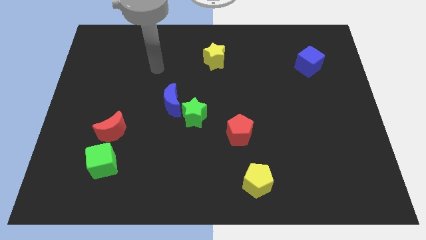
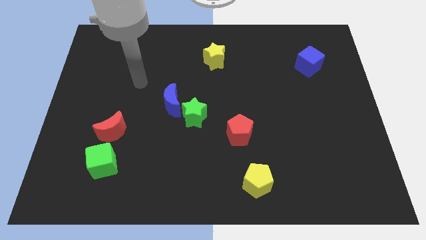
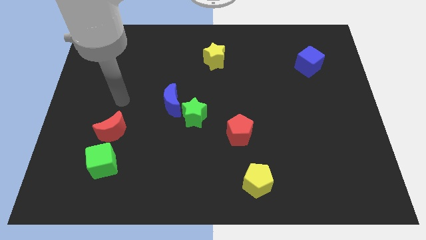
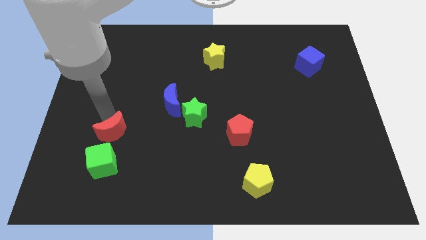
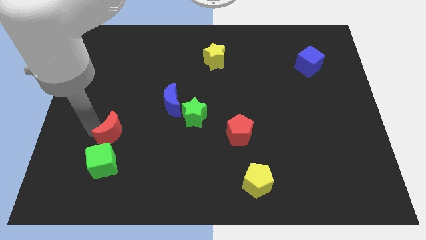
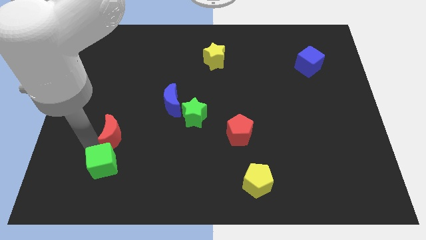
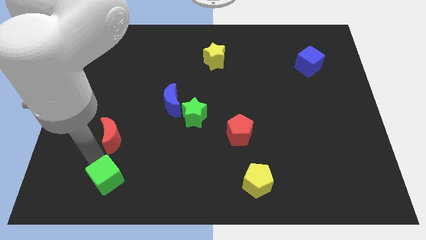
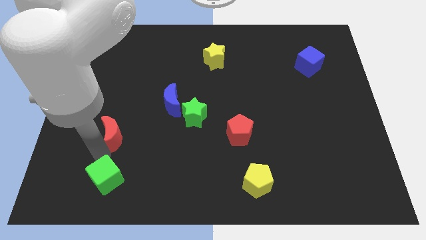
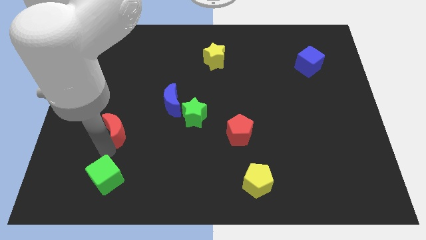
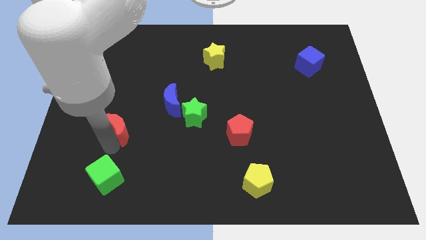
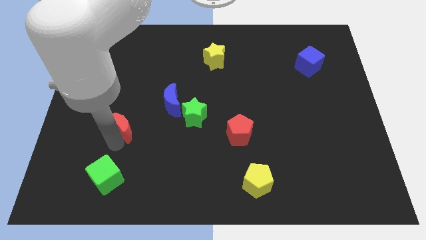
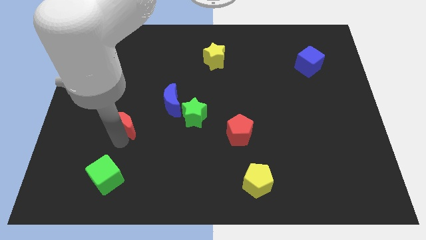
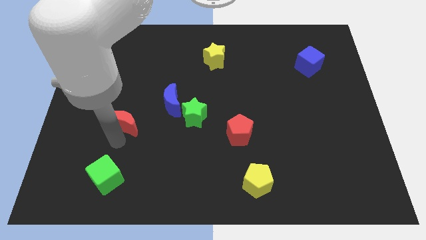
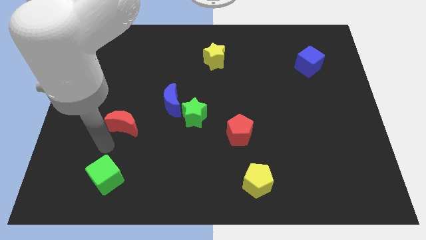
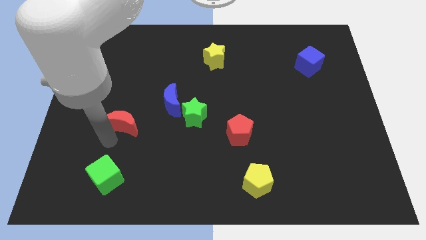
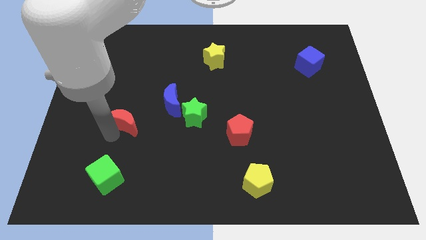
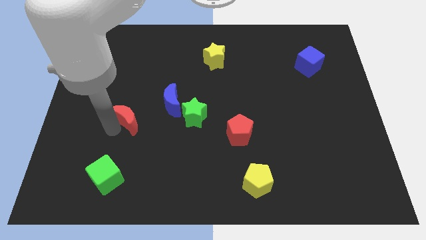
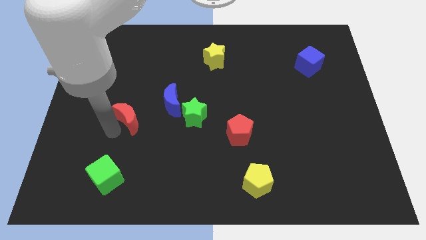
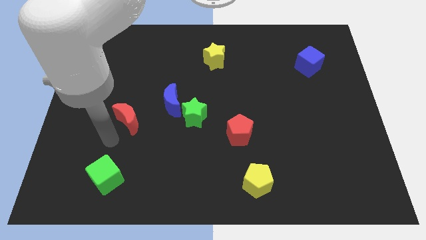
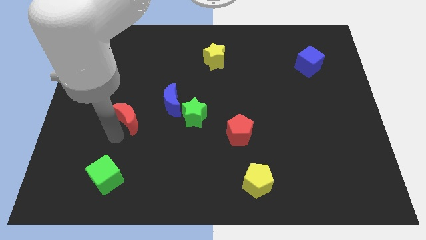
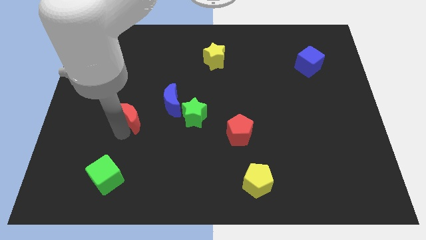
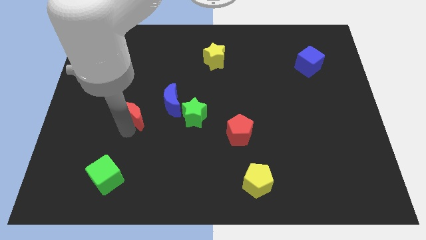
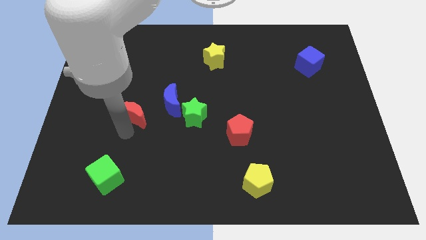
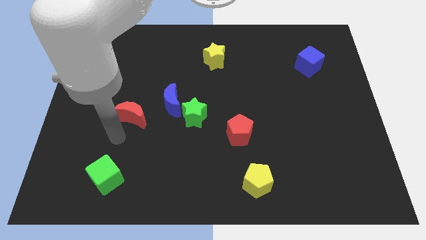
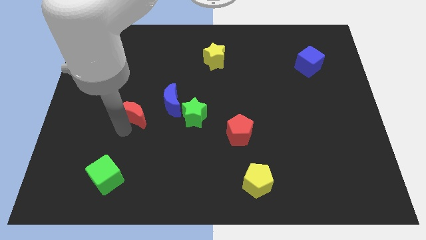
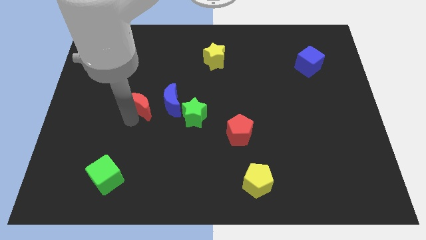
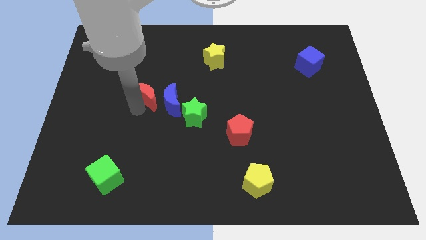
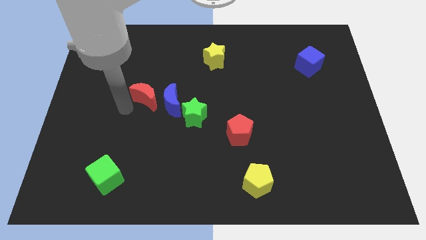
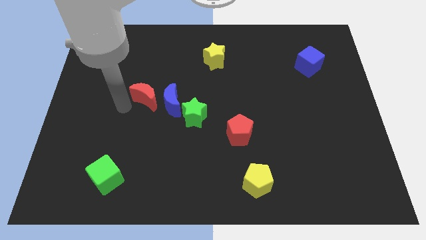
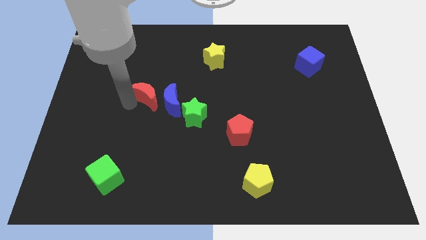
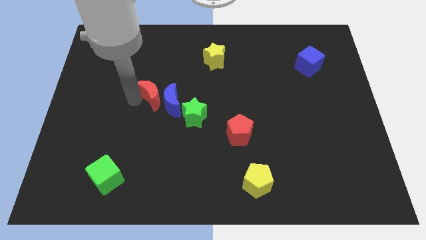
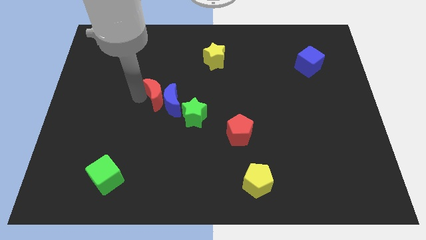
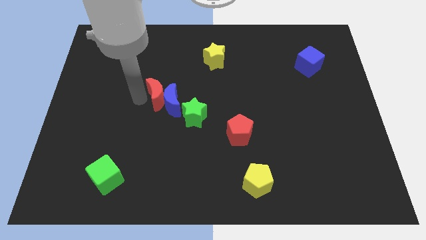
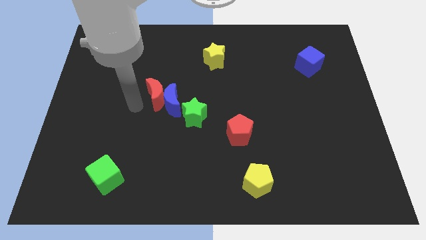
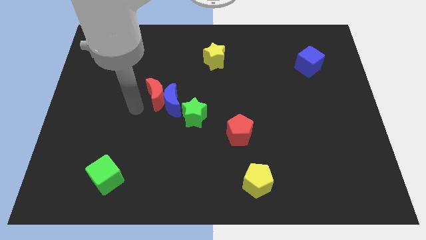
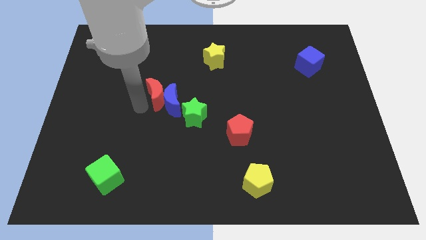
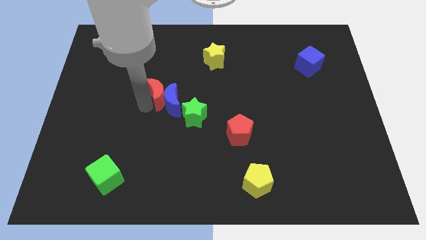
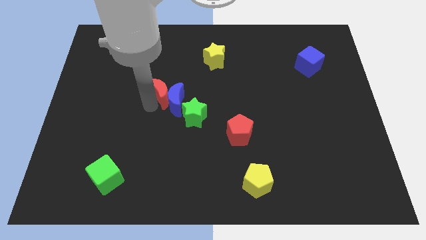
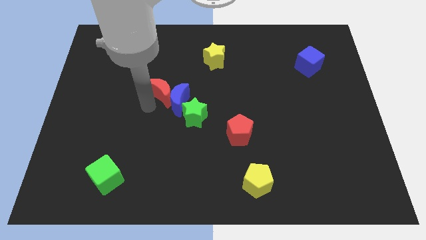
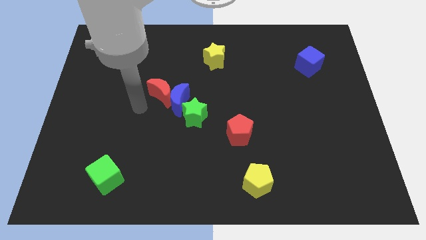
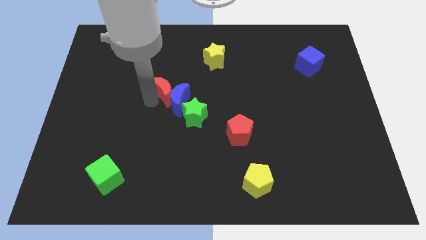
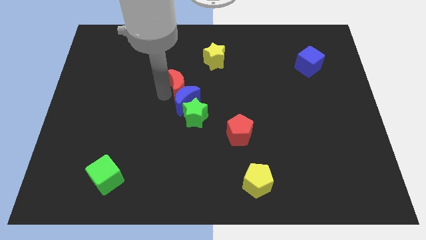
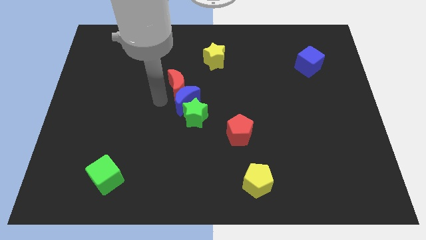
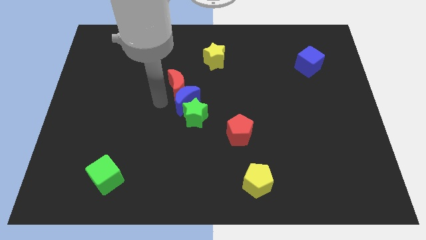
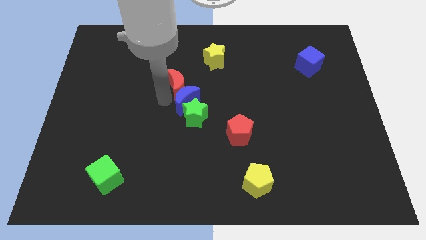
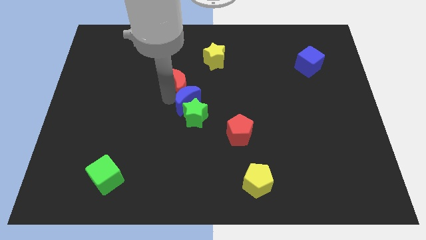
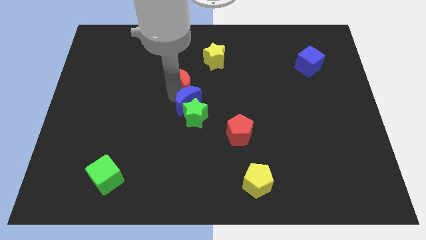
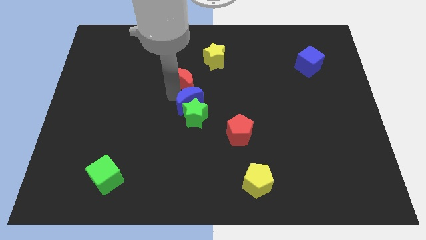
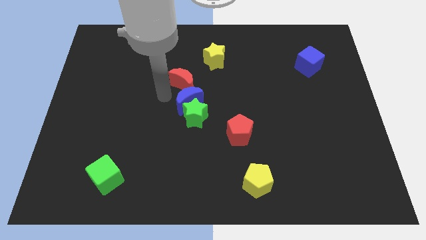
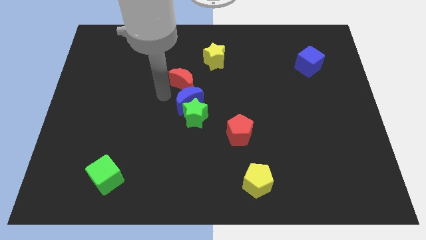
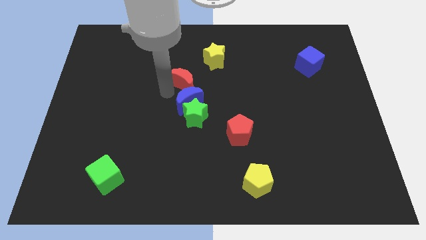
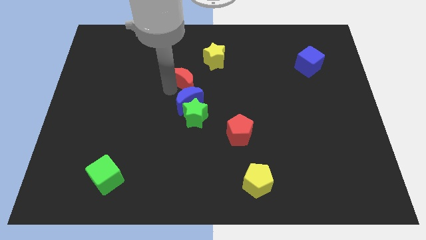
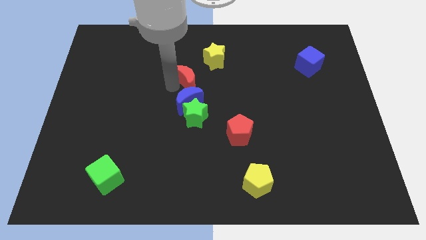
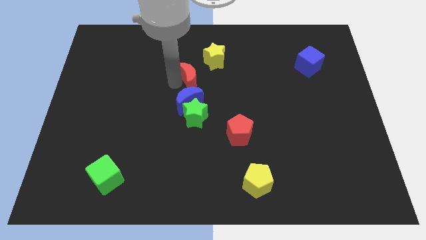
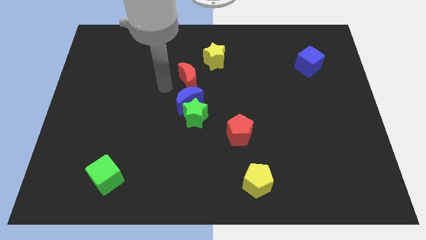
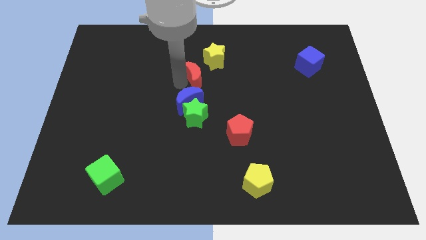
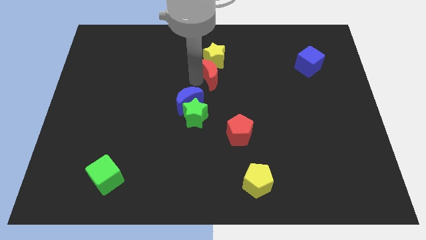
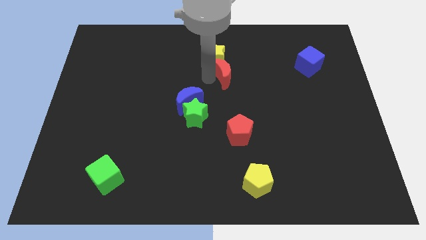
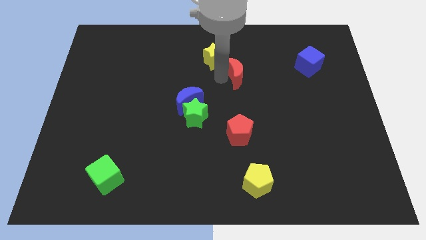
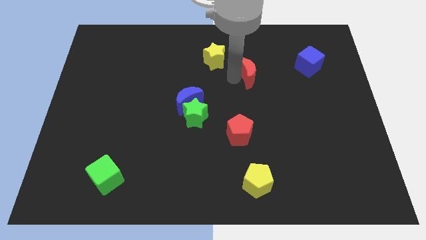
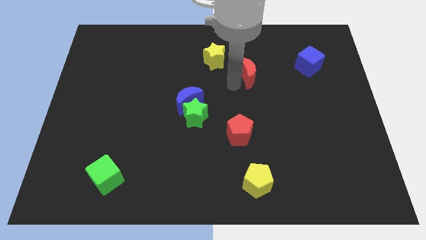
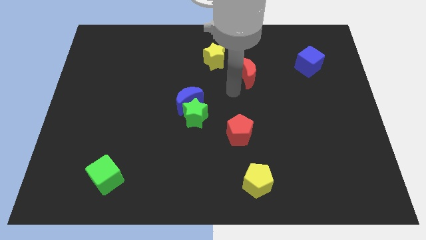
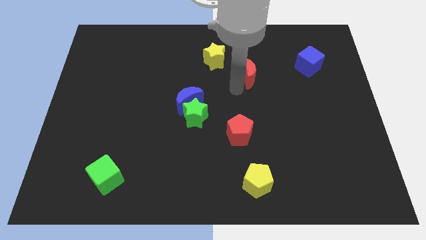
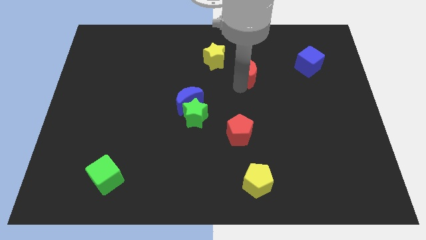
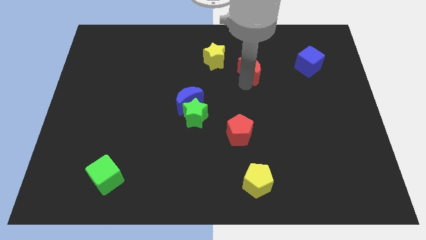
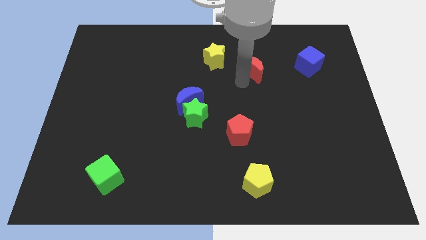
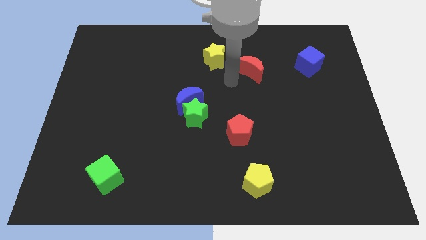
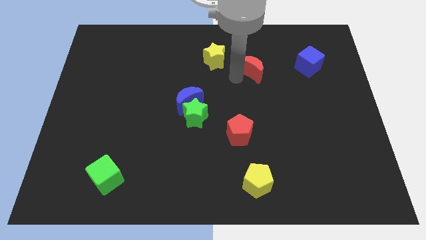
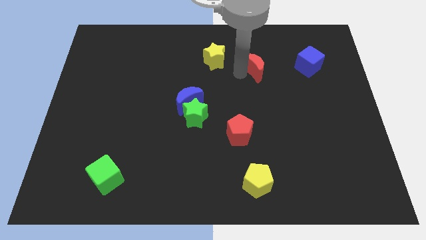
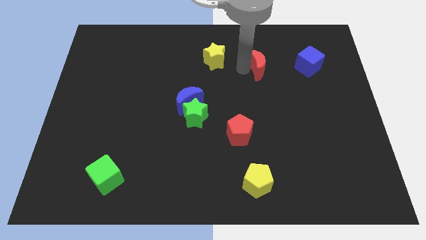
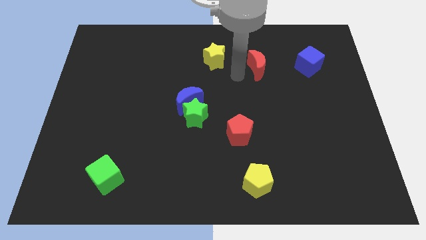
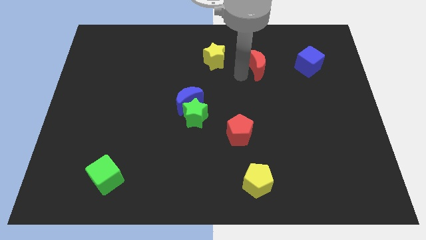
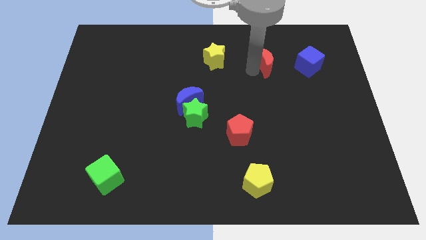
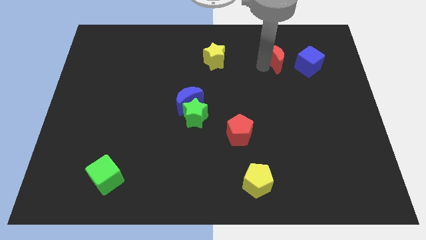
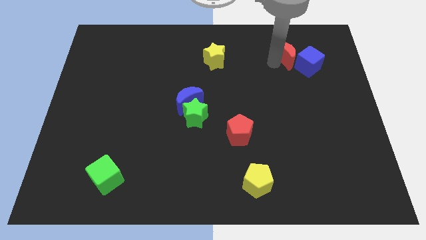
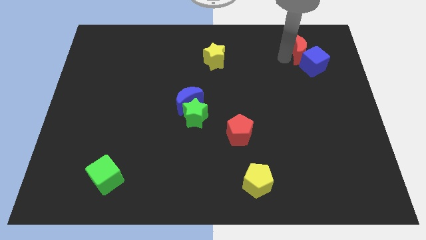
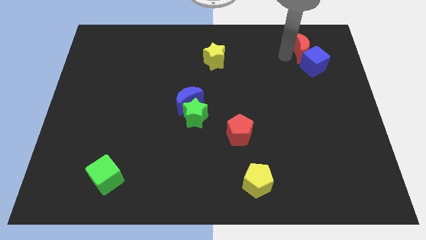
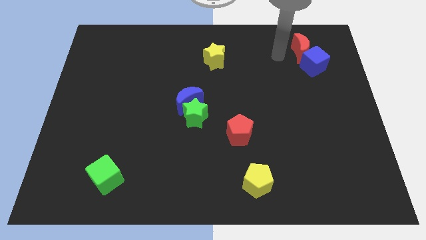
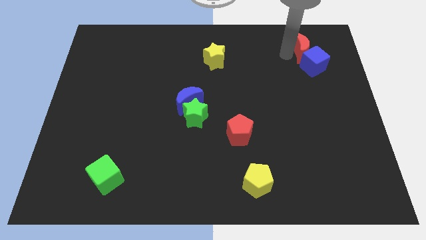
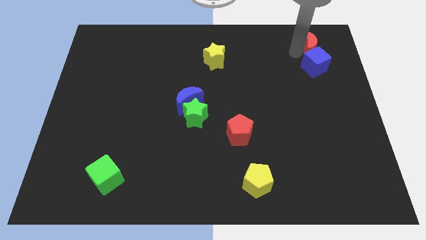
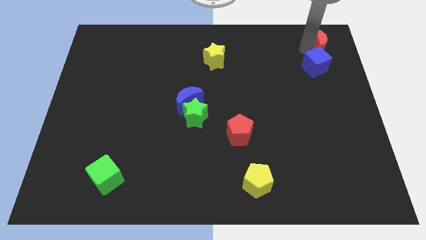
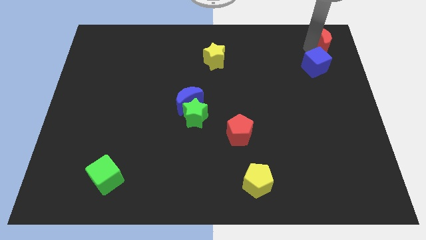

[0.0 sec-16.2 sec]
slide the red moon to the upper right corner
